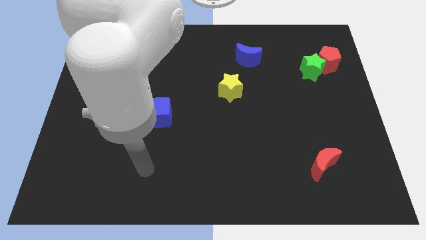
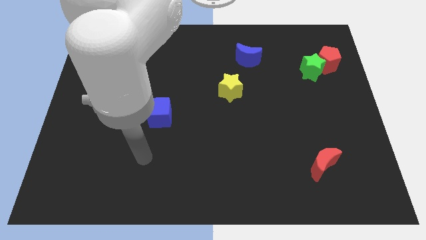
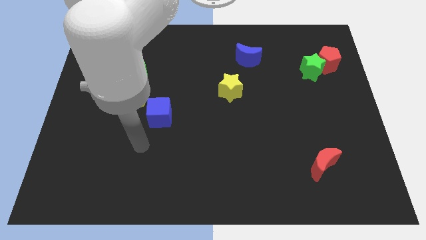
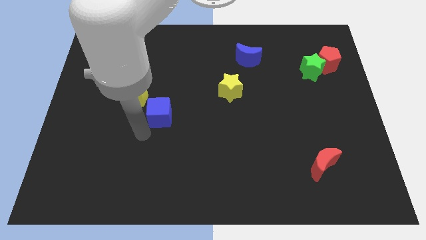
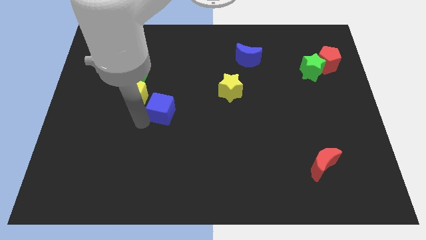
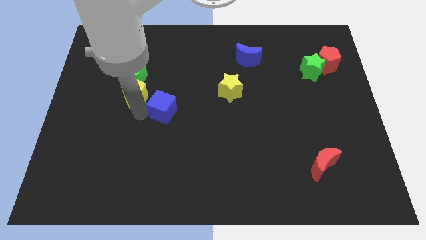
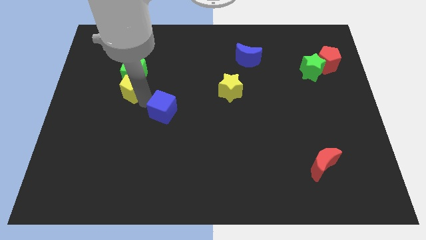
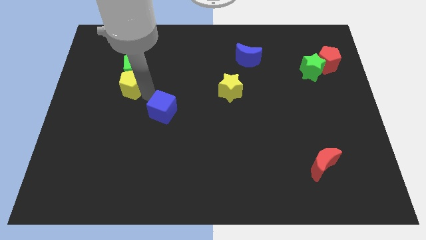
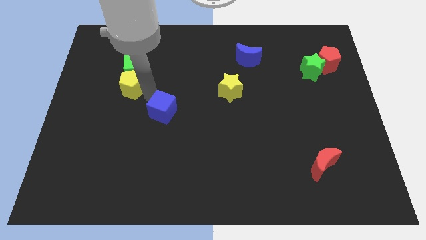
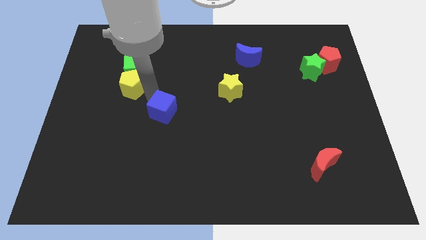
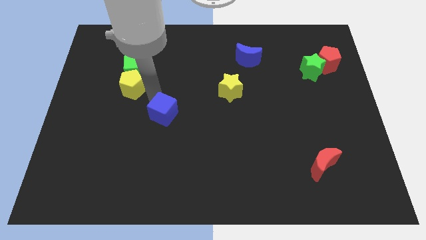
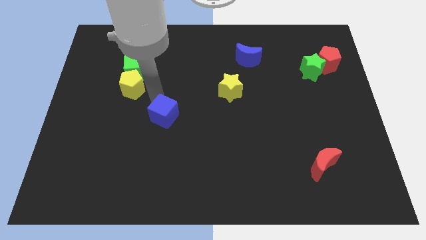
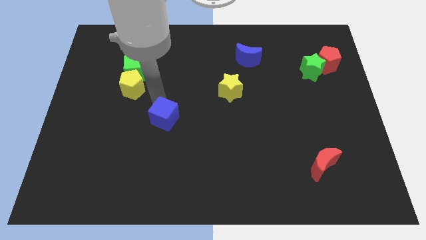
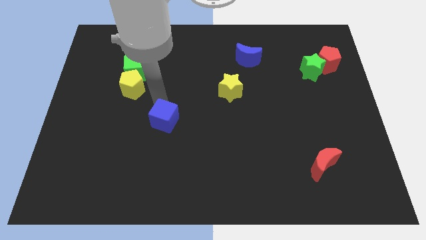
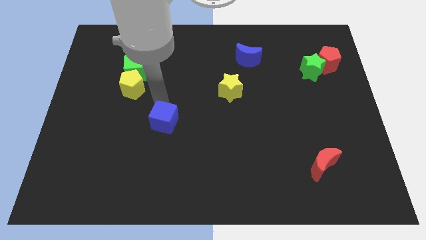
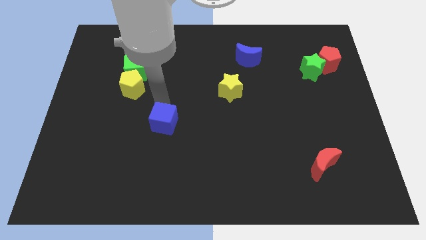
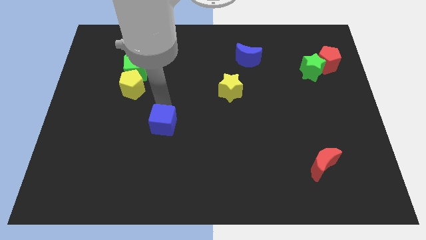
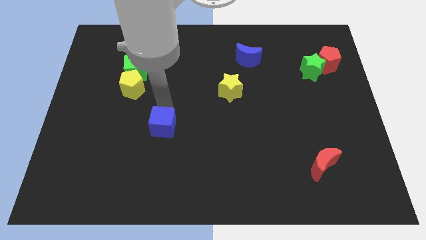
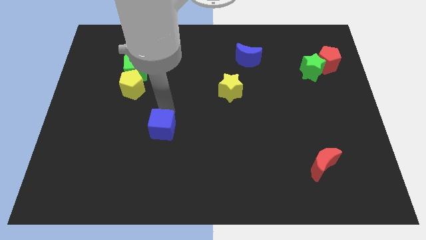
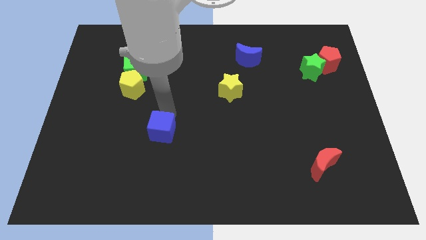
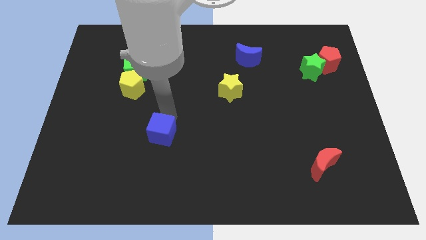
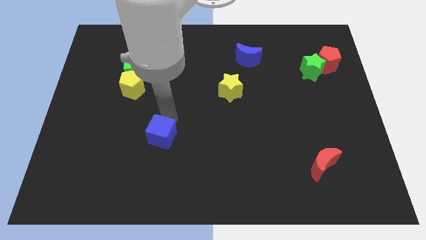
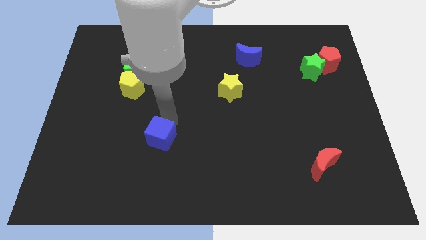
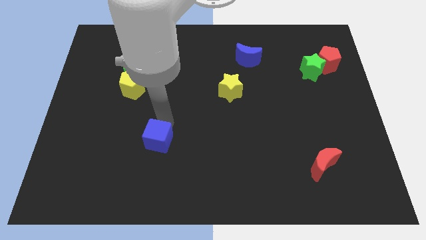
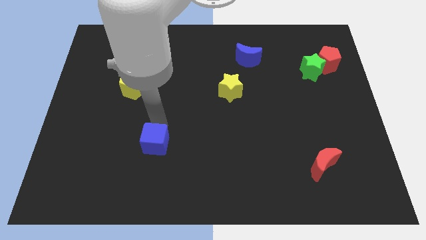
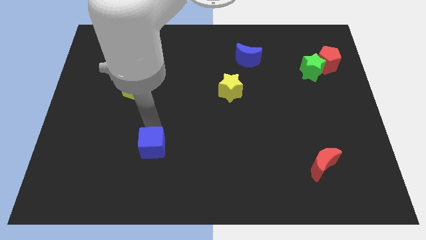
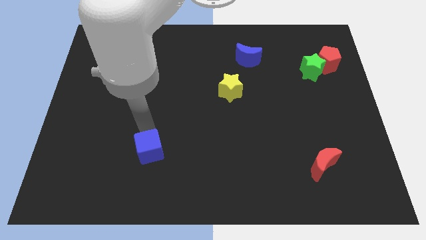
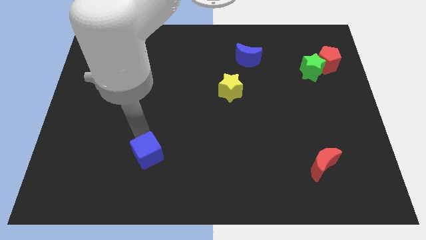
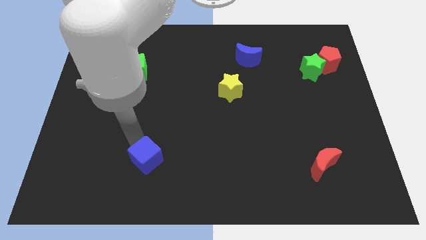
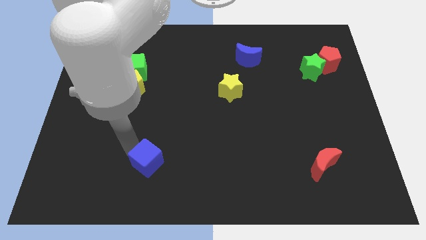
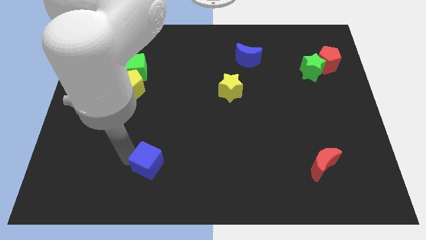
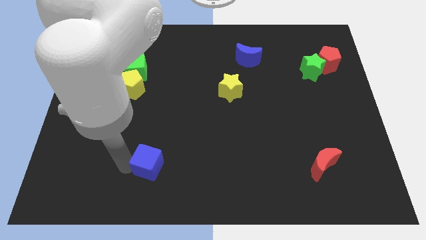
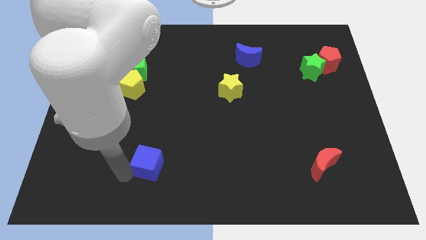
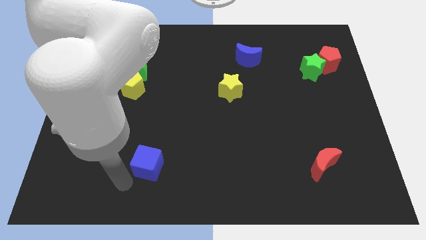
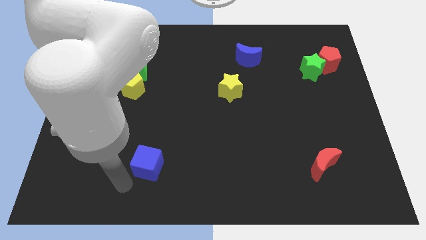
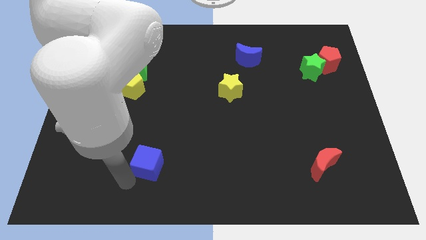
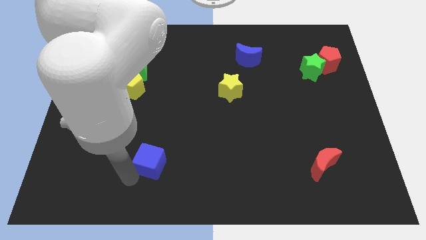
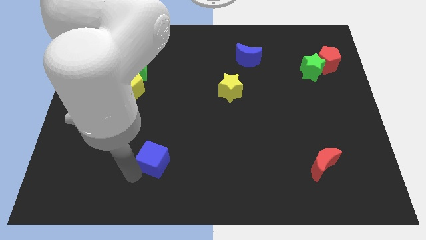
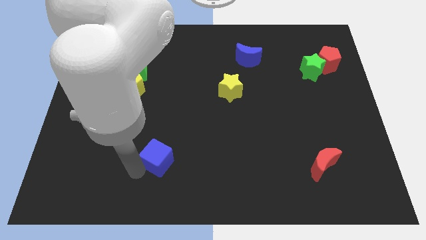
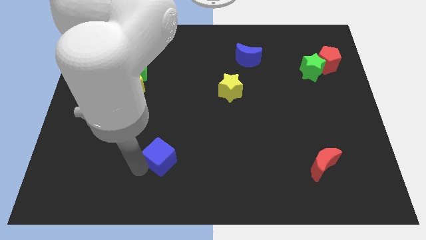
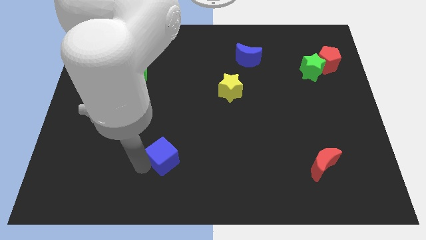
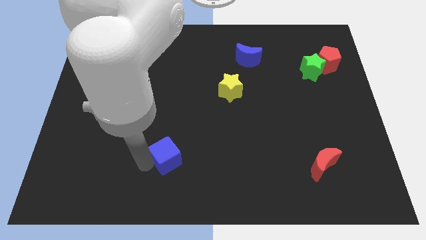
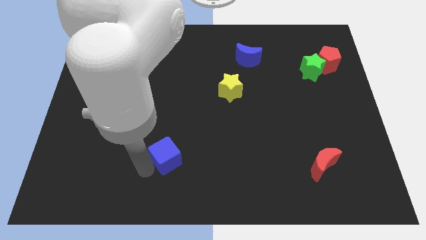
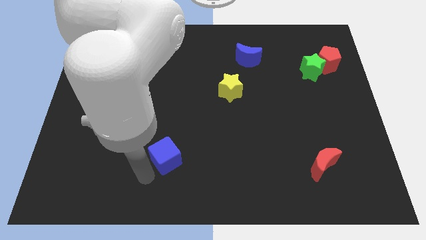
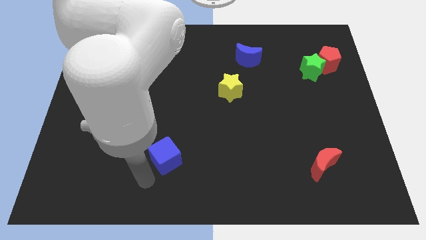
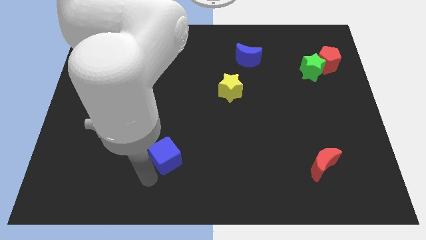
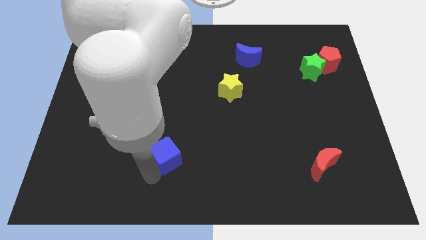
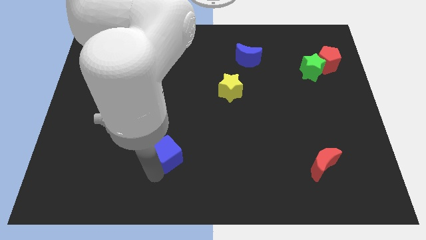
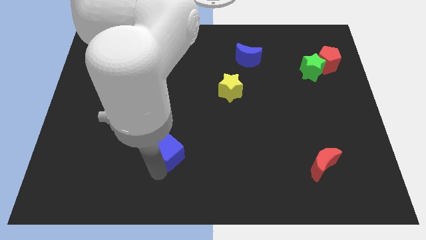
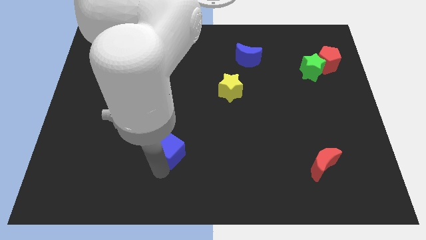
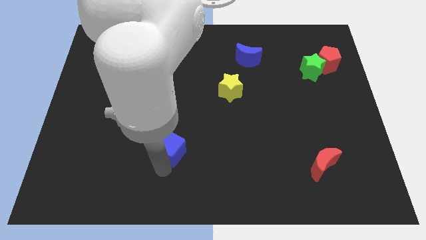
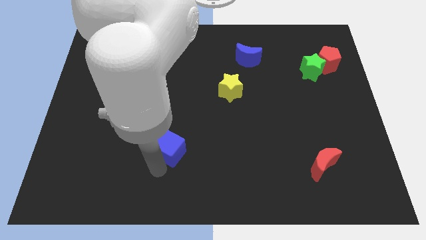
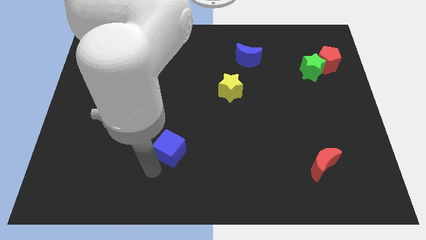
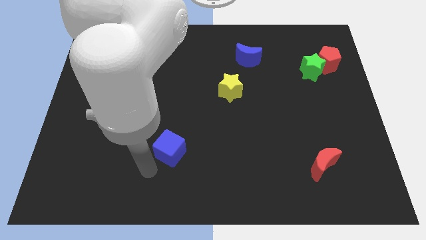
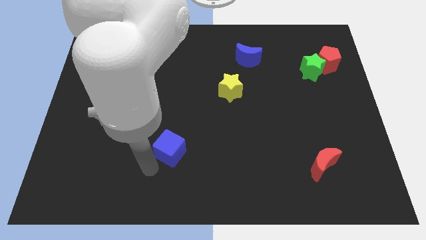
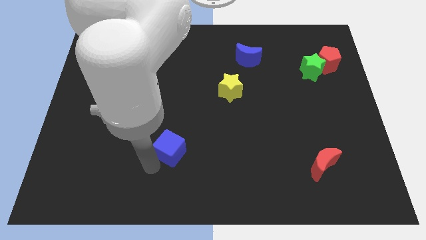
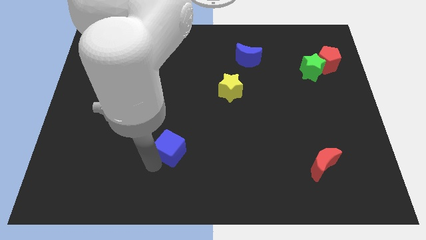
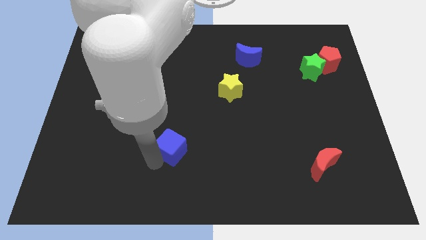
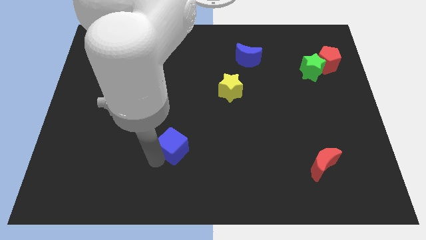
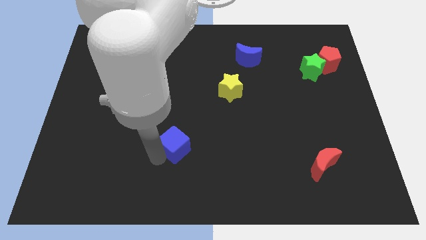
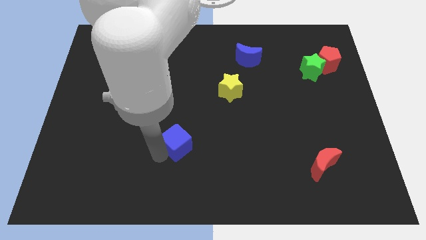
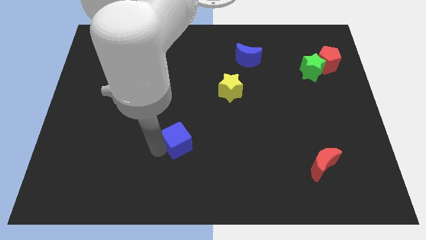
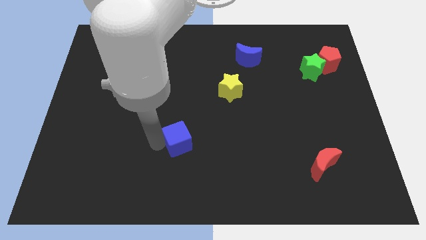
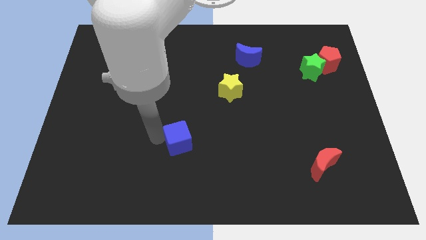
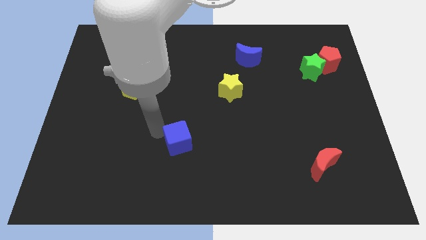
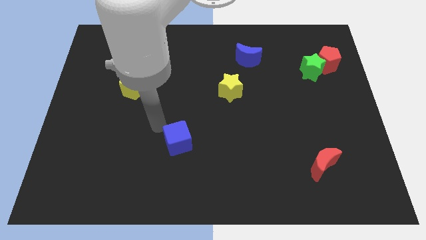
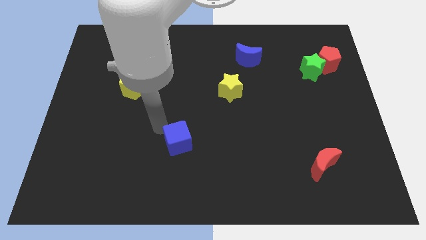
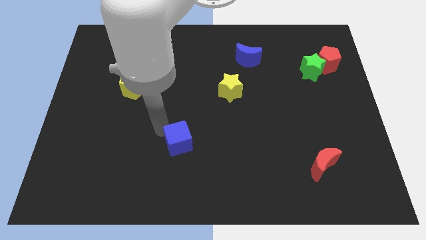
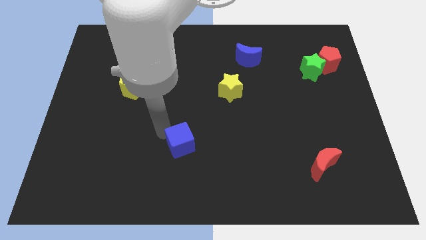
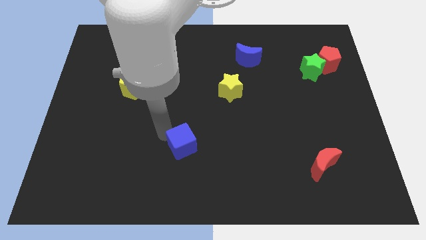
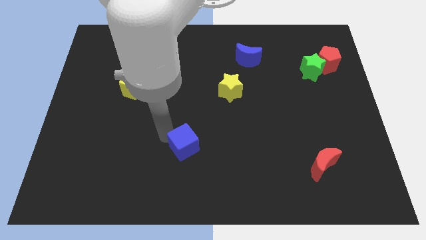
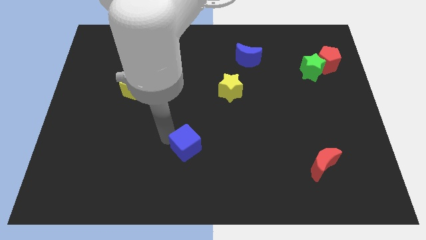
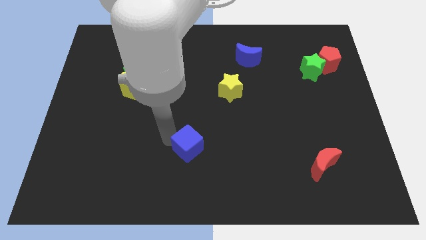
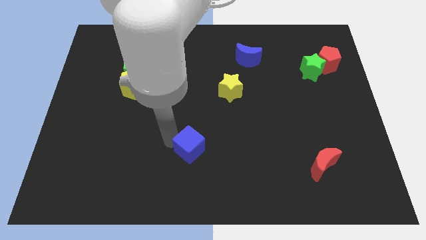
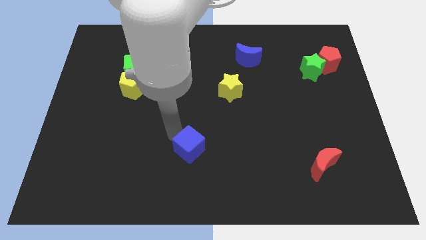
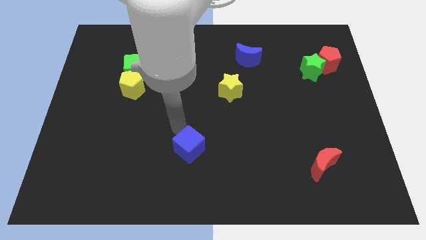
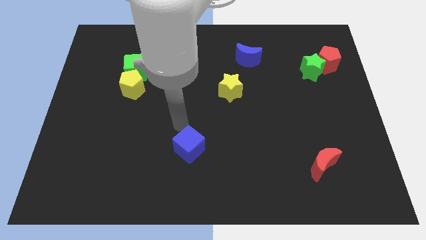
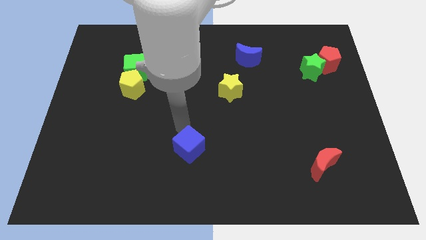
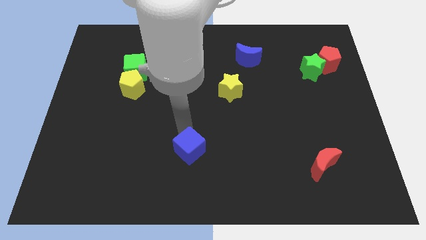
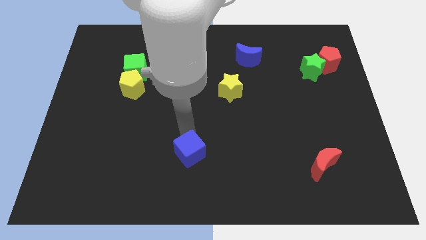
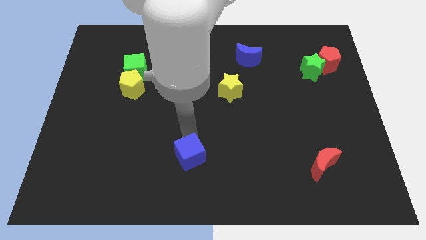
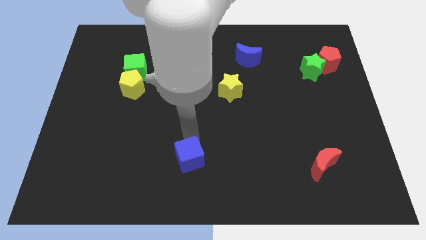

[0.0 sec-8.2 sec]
slide the blue cube to the bottom side
